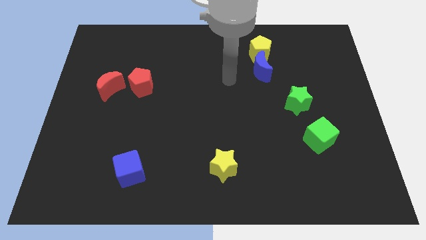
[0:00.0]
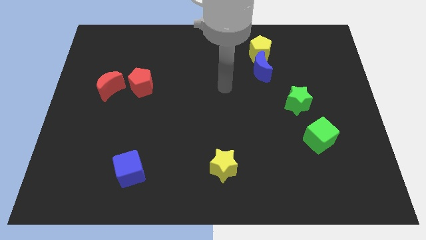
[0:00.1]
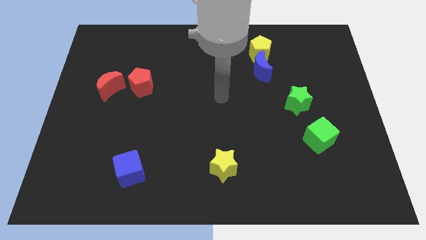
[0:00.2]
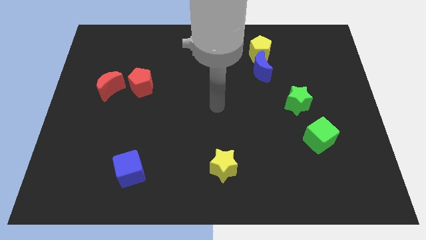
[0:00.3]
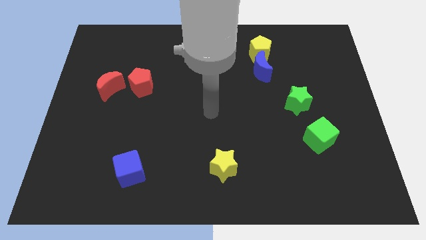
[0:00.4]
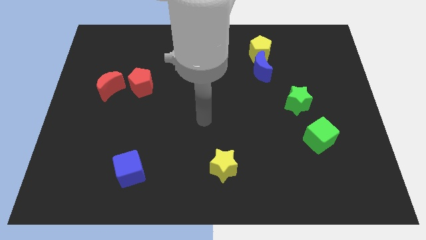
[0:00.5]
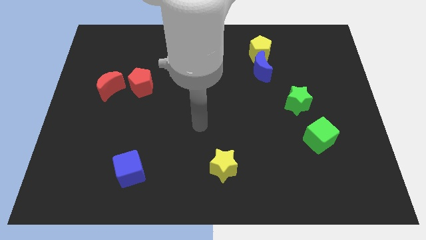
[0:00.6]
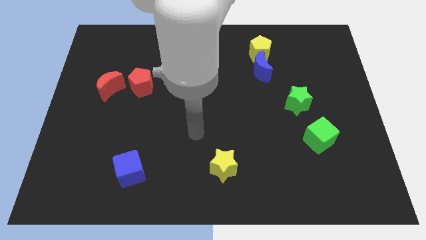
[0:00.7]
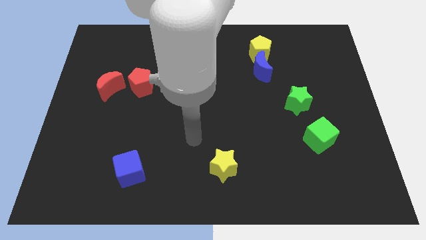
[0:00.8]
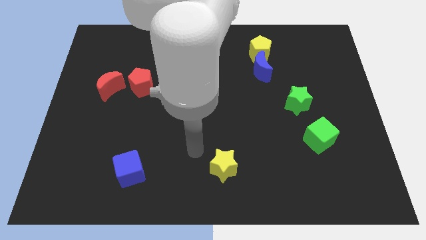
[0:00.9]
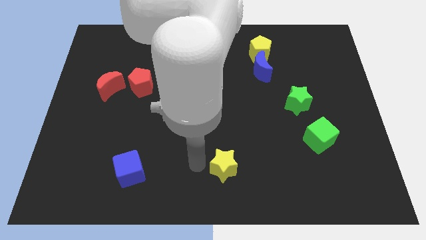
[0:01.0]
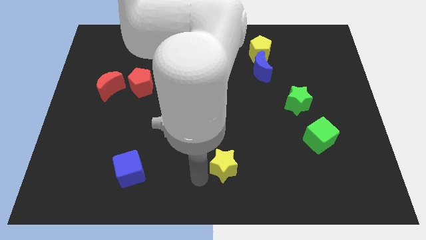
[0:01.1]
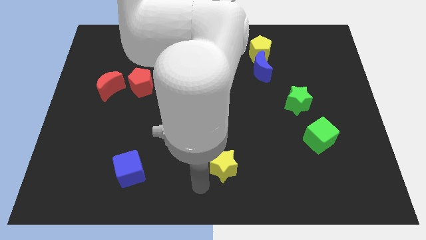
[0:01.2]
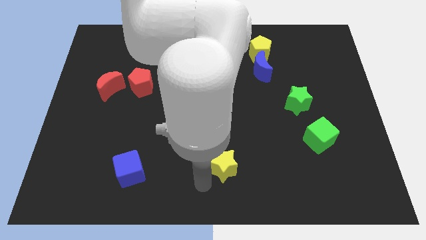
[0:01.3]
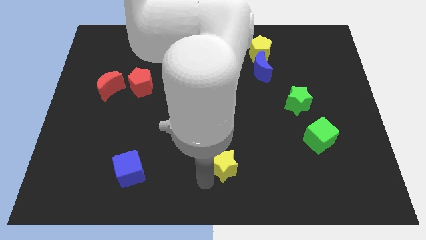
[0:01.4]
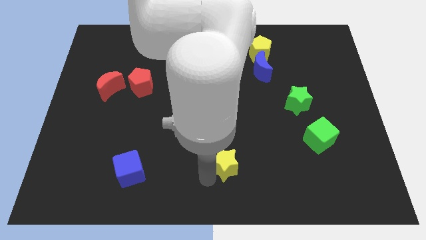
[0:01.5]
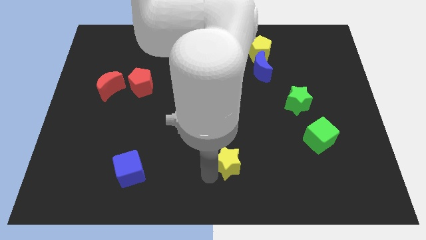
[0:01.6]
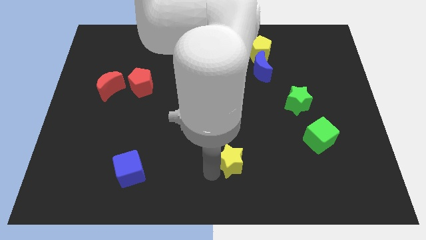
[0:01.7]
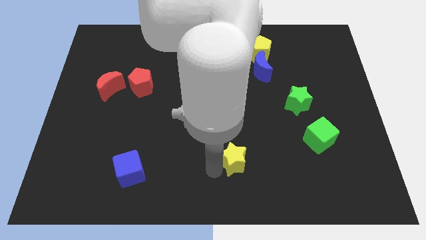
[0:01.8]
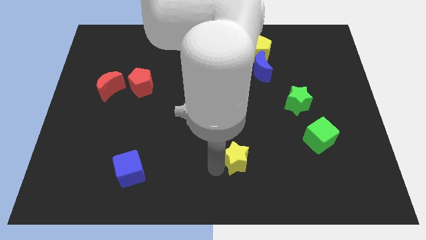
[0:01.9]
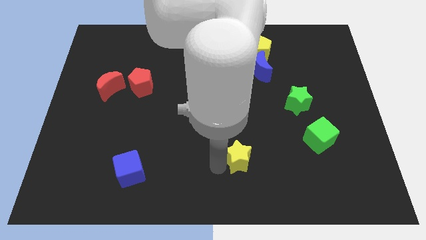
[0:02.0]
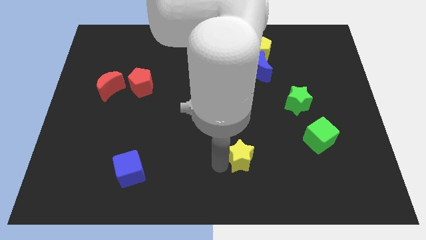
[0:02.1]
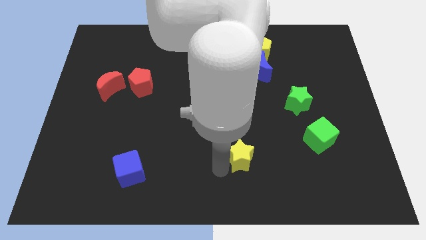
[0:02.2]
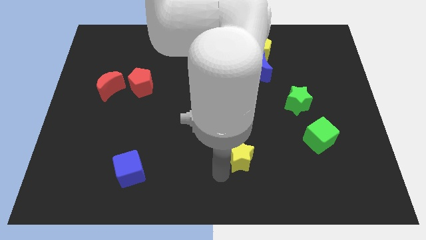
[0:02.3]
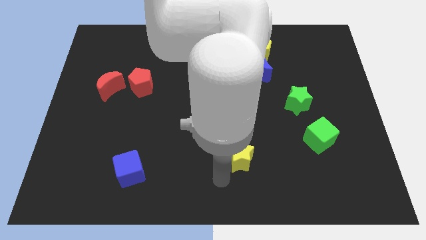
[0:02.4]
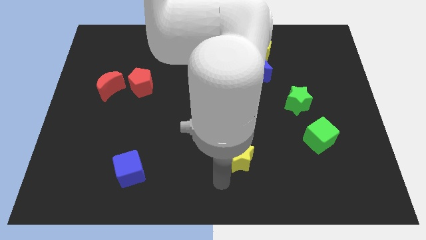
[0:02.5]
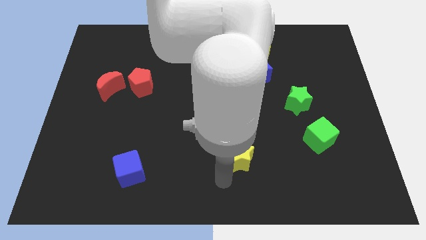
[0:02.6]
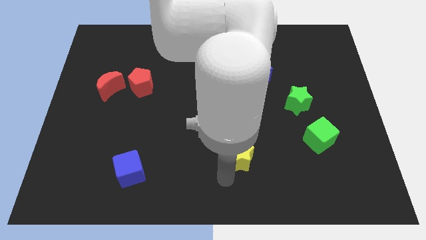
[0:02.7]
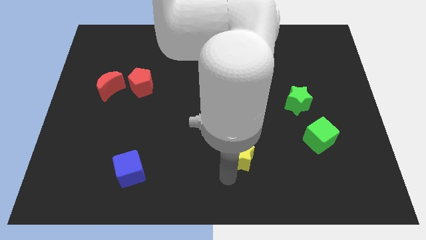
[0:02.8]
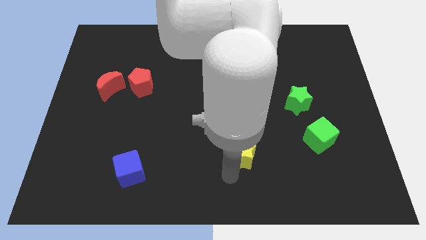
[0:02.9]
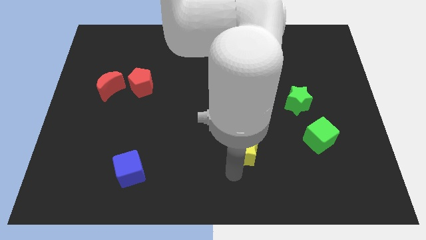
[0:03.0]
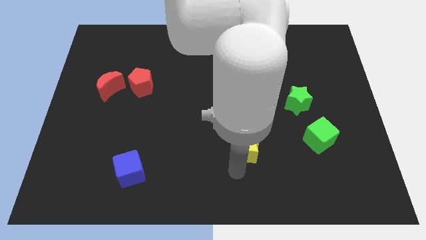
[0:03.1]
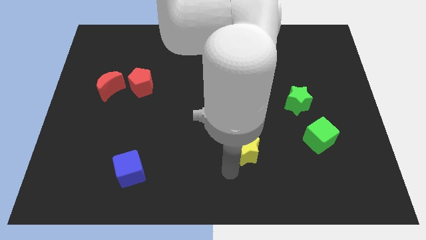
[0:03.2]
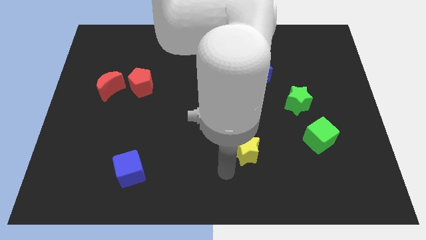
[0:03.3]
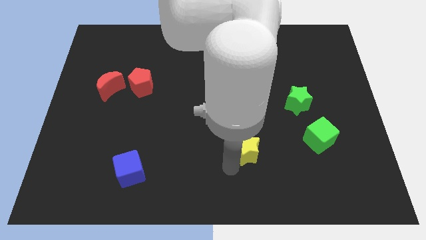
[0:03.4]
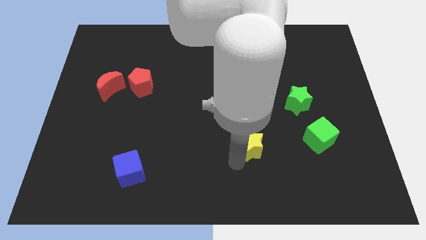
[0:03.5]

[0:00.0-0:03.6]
slightly push the yellow star up and then to the right

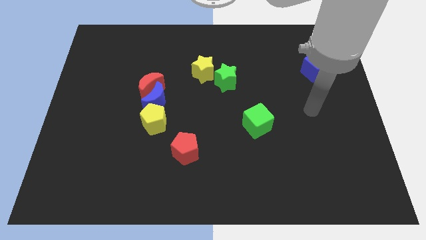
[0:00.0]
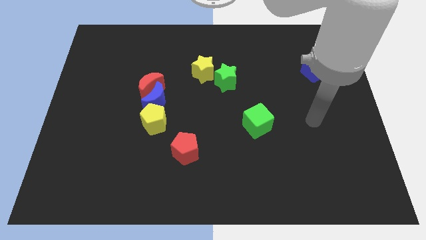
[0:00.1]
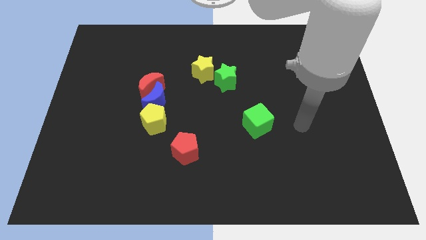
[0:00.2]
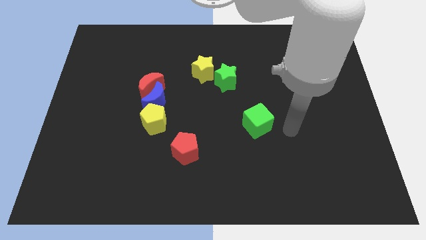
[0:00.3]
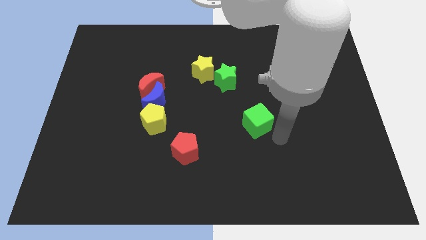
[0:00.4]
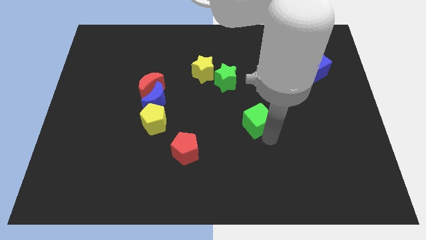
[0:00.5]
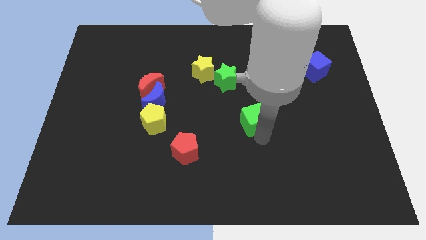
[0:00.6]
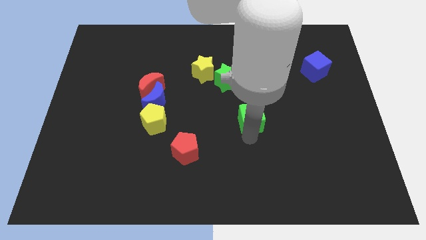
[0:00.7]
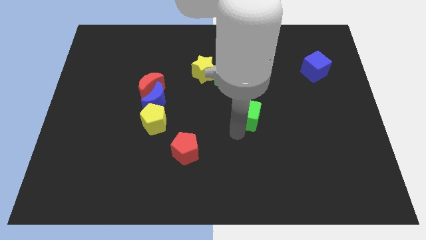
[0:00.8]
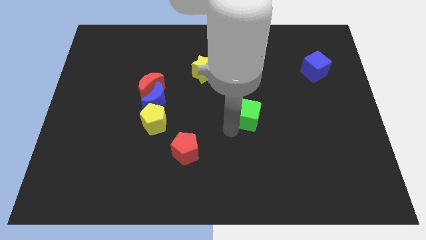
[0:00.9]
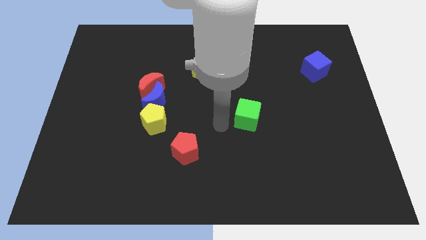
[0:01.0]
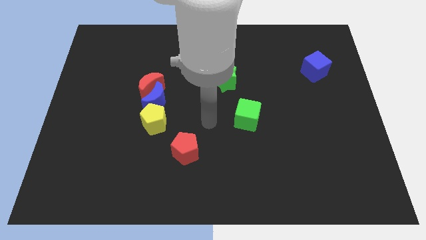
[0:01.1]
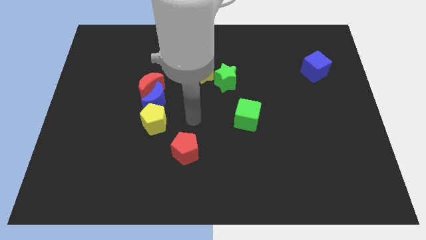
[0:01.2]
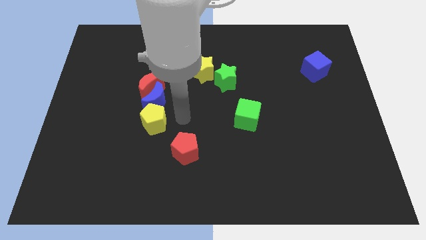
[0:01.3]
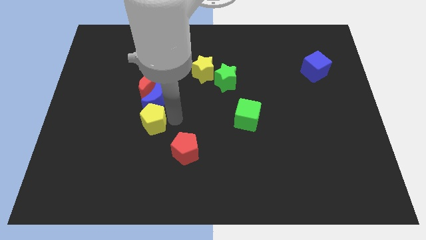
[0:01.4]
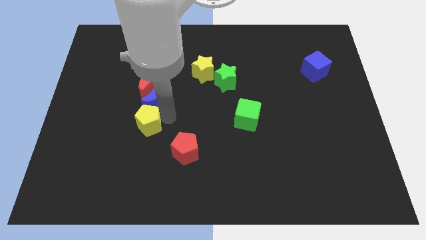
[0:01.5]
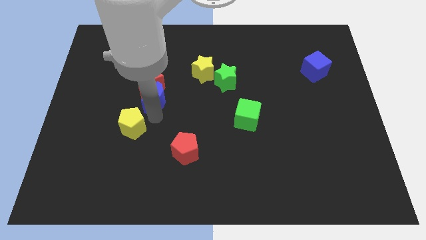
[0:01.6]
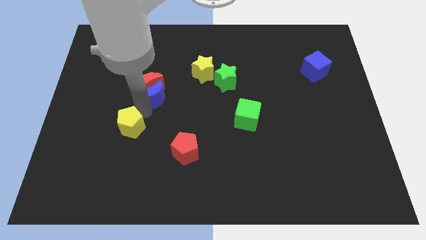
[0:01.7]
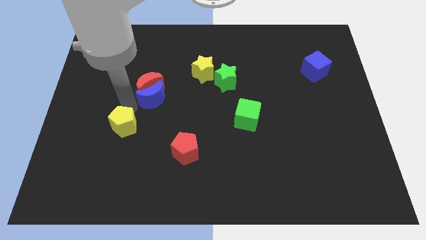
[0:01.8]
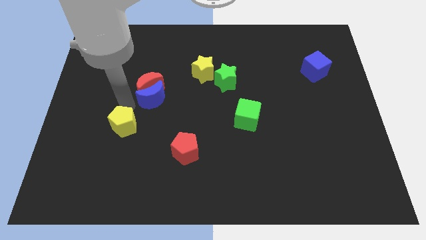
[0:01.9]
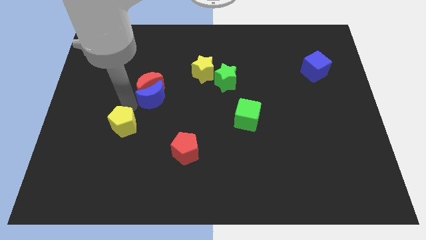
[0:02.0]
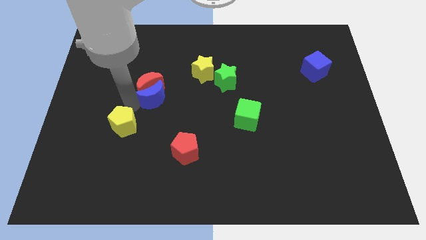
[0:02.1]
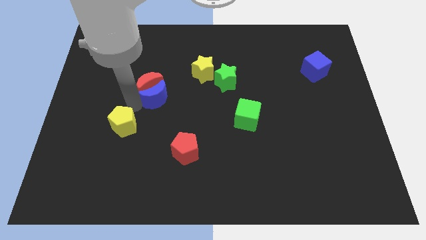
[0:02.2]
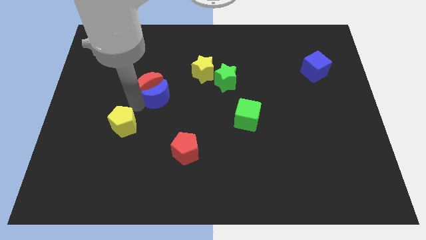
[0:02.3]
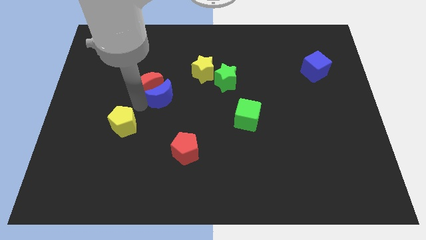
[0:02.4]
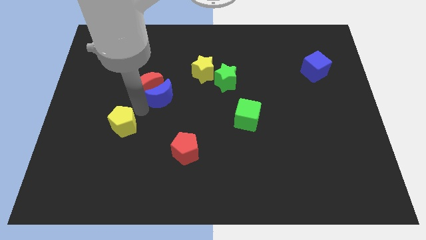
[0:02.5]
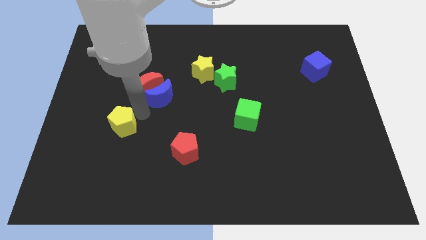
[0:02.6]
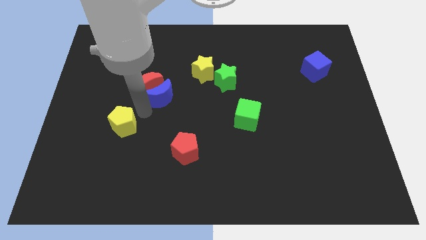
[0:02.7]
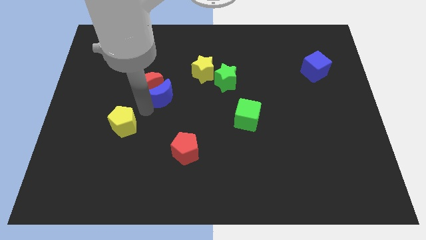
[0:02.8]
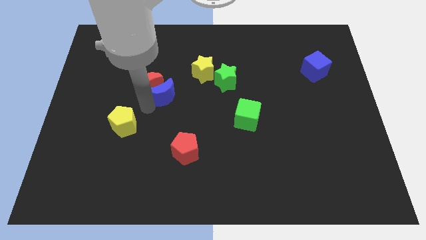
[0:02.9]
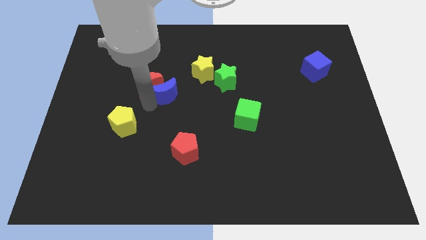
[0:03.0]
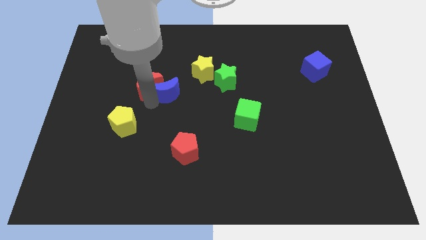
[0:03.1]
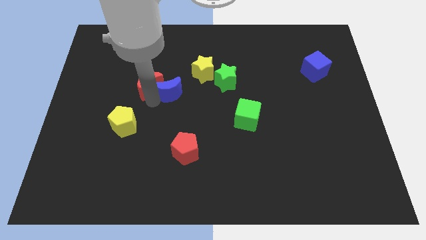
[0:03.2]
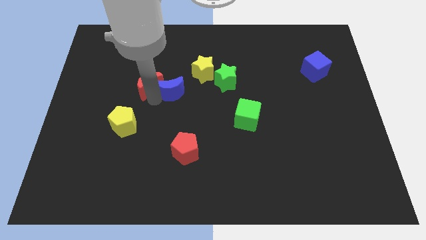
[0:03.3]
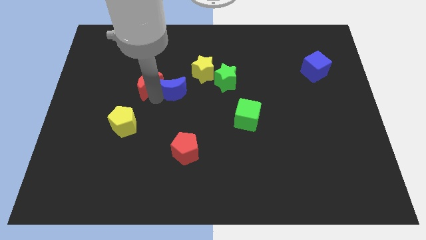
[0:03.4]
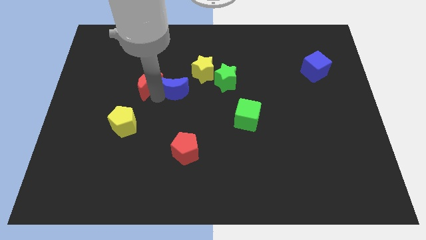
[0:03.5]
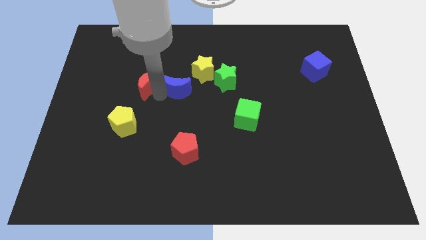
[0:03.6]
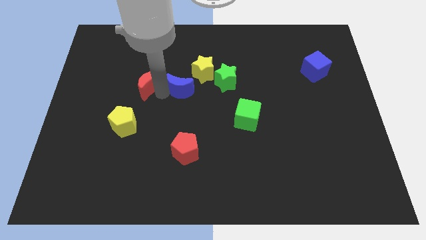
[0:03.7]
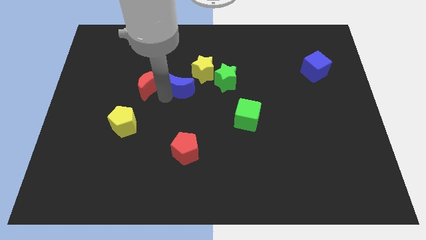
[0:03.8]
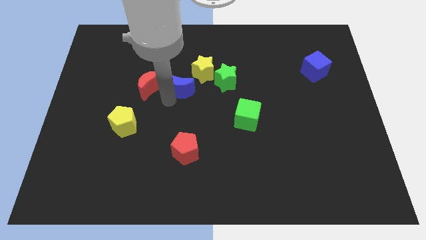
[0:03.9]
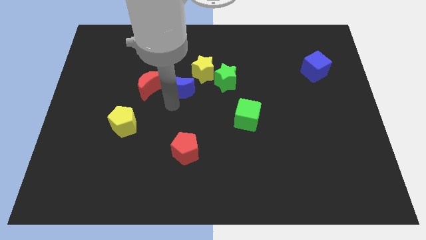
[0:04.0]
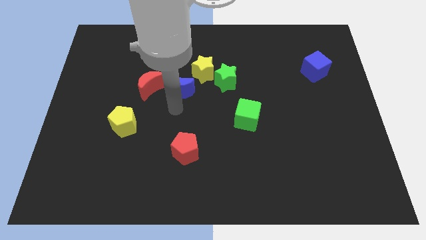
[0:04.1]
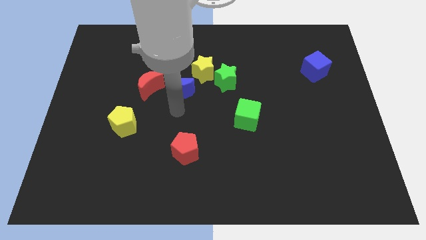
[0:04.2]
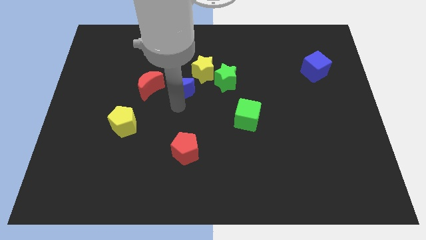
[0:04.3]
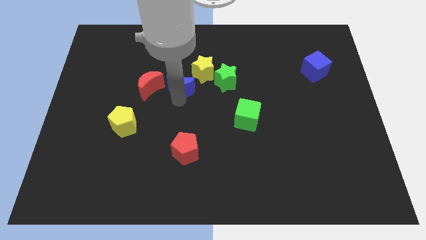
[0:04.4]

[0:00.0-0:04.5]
slightly slide the blue moon diagonally upwards and to the right
